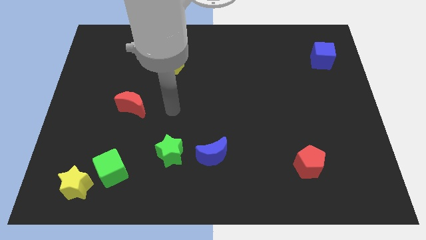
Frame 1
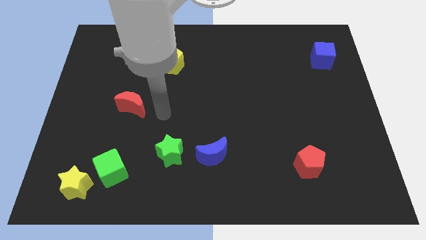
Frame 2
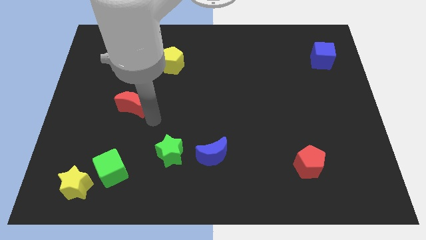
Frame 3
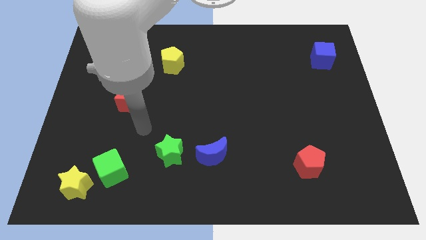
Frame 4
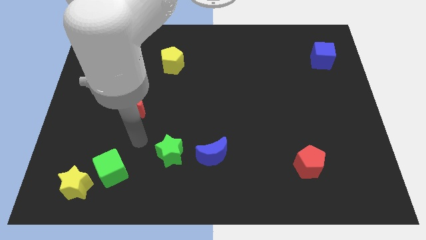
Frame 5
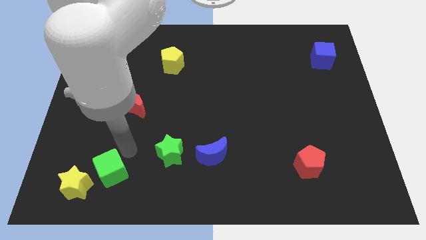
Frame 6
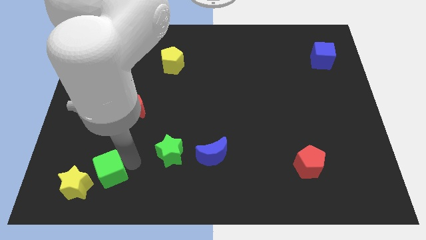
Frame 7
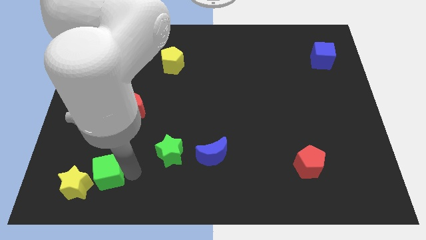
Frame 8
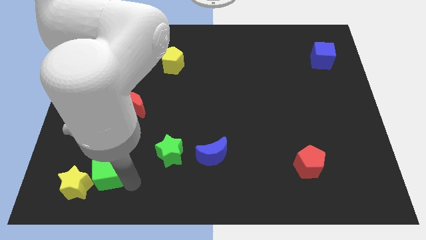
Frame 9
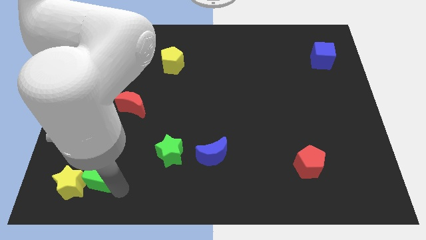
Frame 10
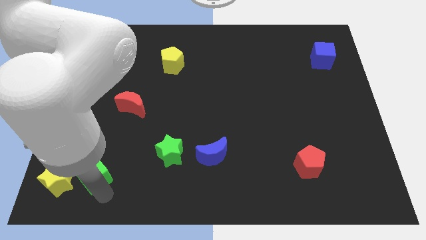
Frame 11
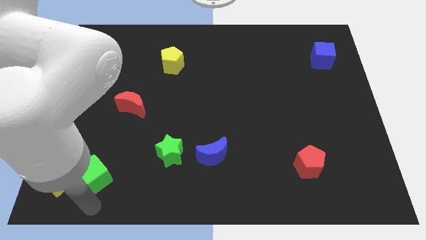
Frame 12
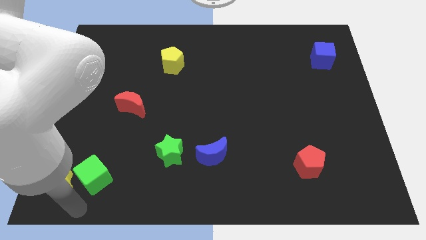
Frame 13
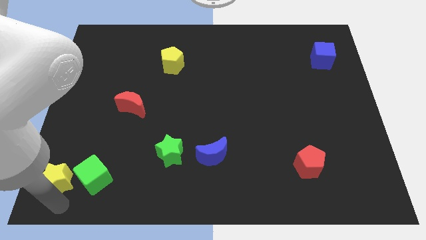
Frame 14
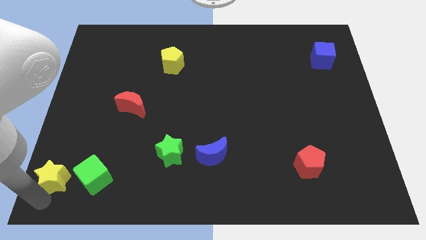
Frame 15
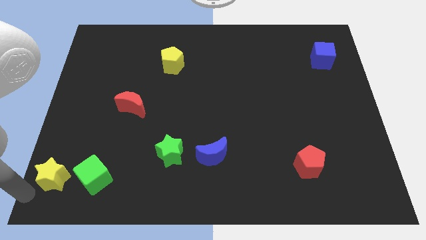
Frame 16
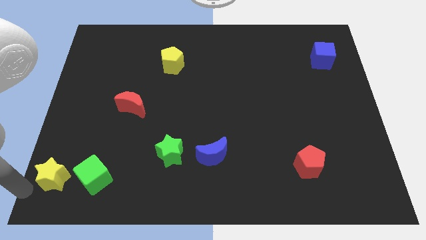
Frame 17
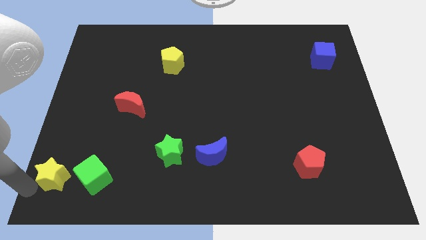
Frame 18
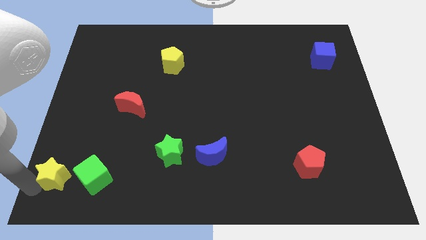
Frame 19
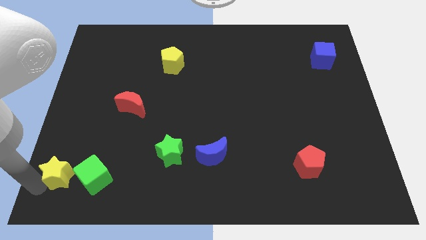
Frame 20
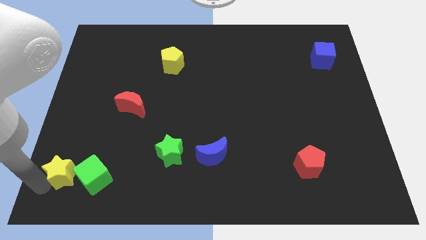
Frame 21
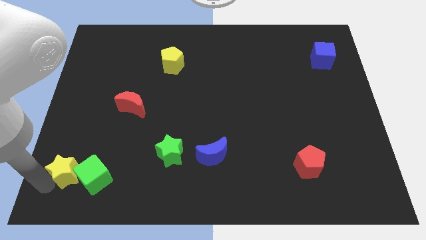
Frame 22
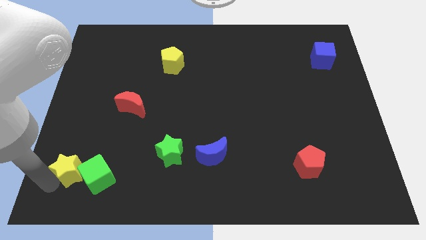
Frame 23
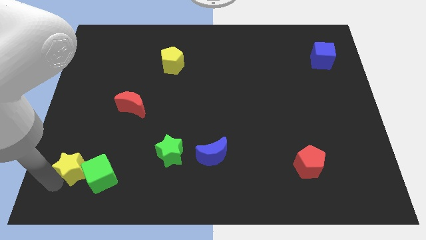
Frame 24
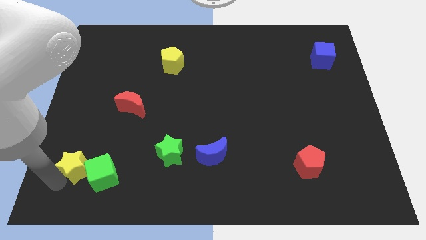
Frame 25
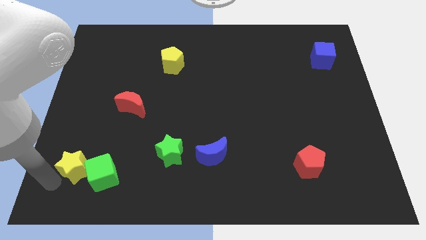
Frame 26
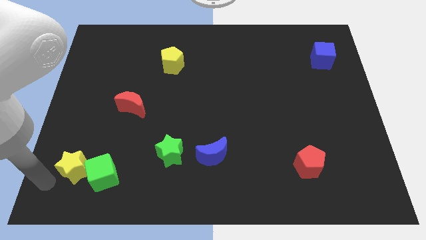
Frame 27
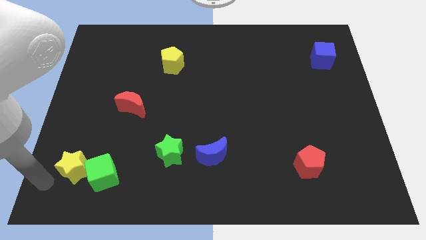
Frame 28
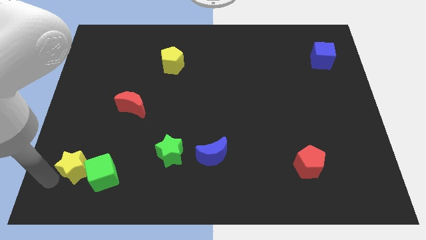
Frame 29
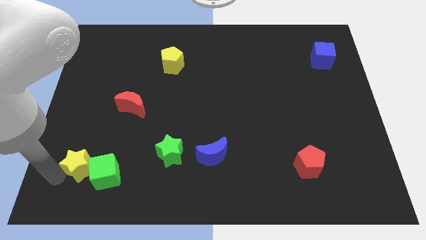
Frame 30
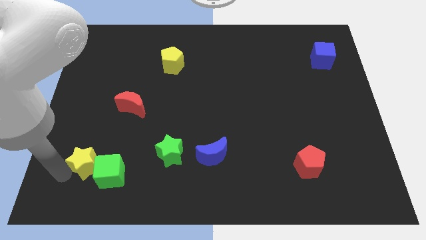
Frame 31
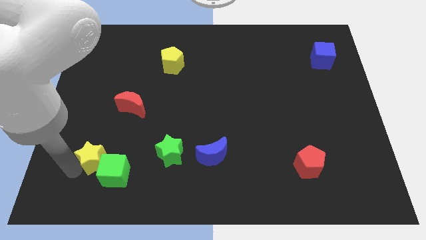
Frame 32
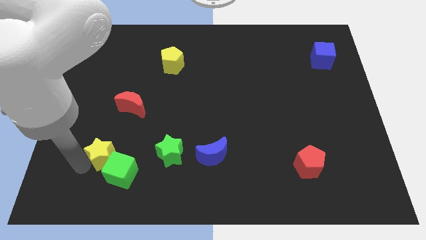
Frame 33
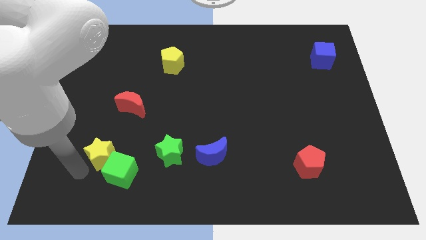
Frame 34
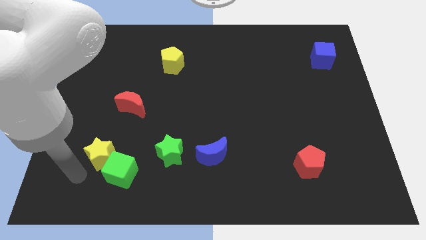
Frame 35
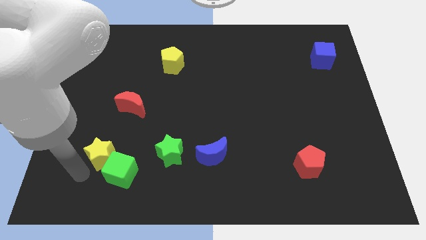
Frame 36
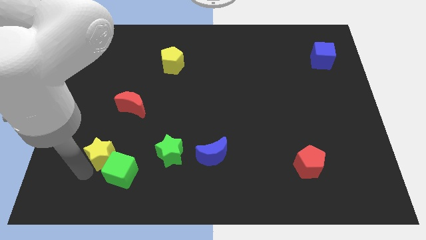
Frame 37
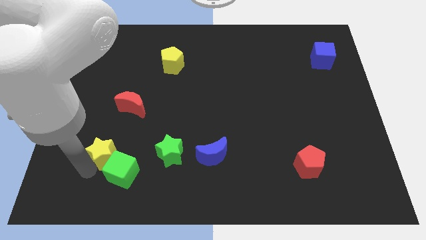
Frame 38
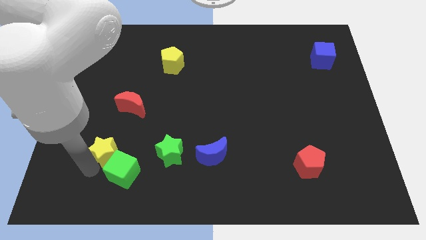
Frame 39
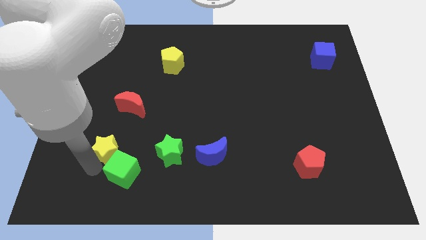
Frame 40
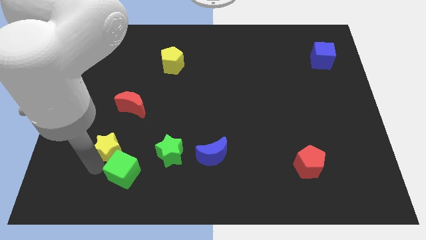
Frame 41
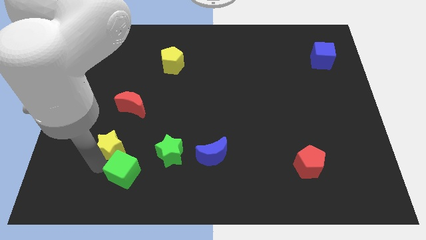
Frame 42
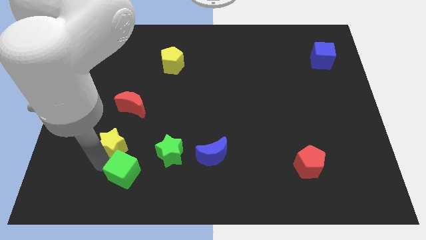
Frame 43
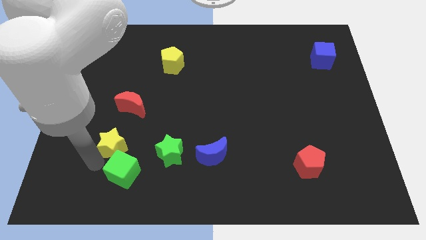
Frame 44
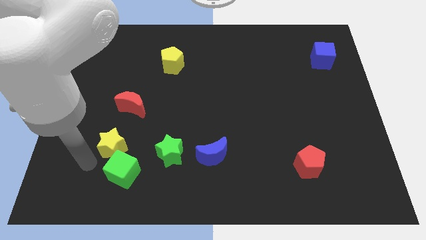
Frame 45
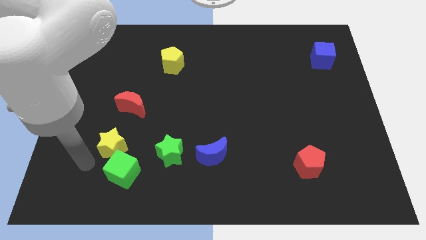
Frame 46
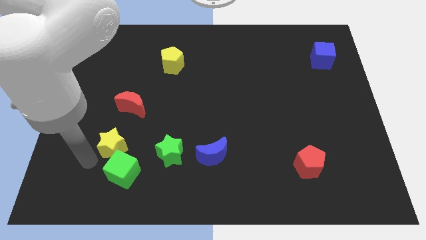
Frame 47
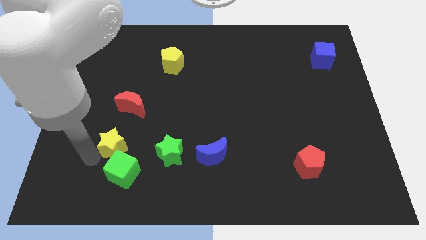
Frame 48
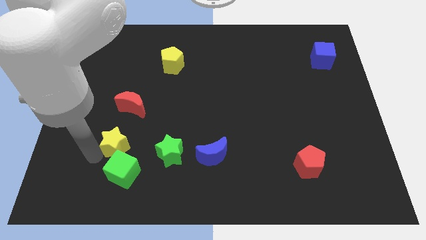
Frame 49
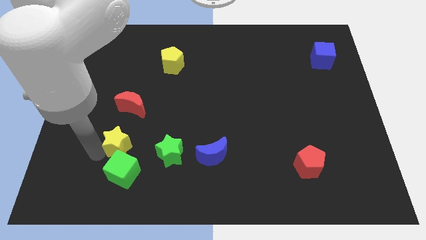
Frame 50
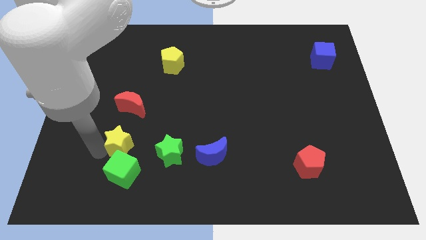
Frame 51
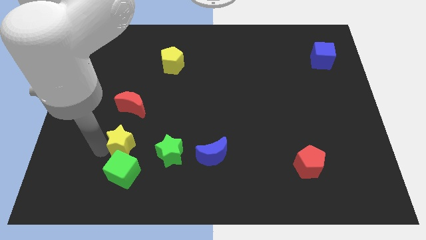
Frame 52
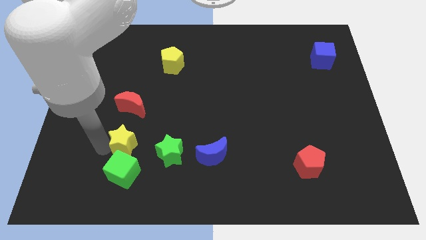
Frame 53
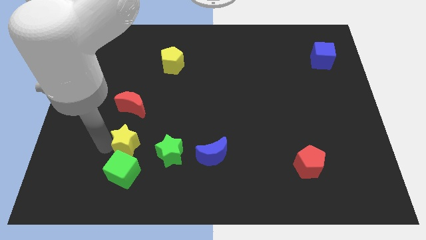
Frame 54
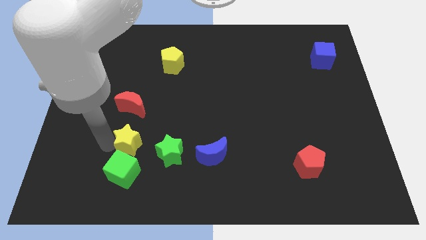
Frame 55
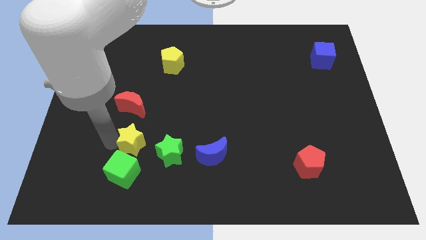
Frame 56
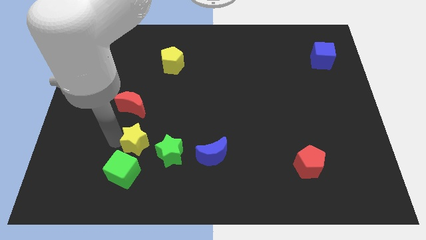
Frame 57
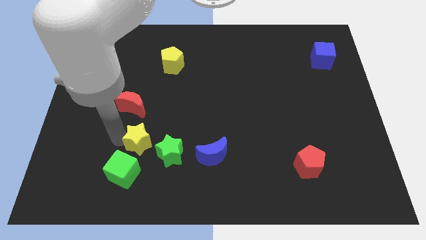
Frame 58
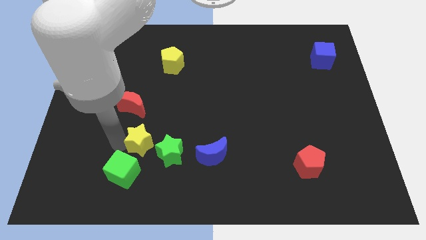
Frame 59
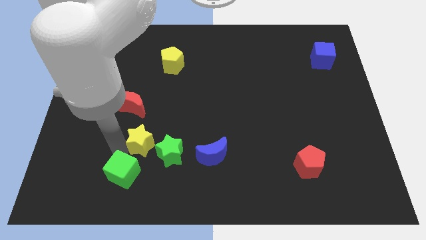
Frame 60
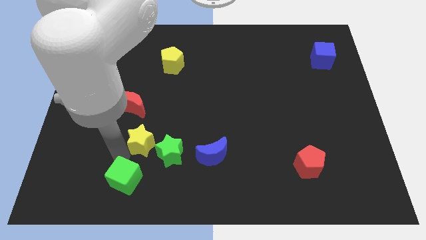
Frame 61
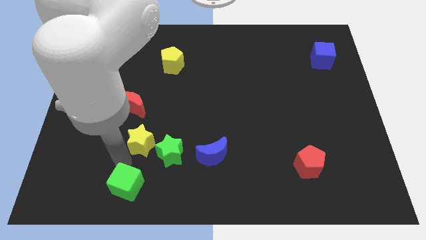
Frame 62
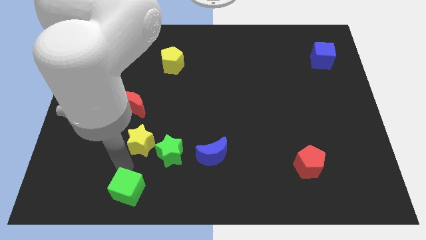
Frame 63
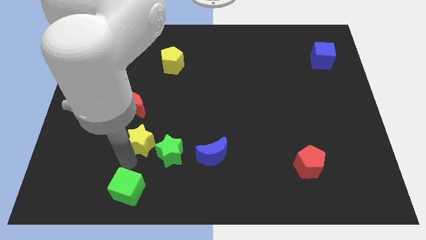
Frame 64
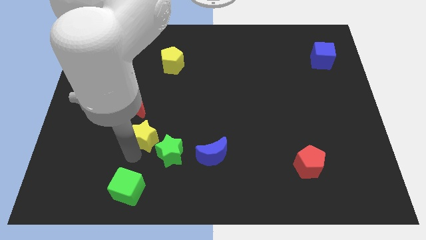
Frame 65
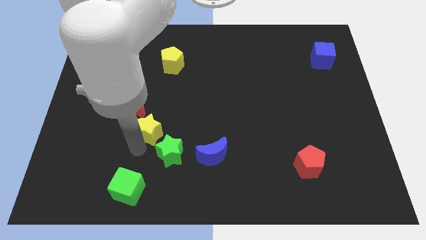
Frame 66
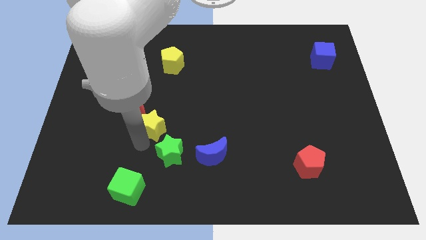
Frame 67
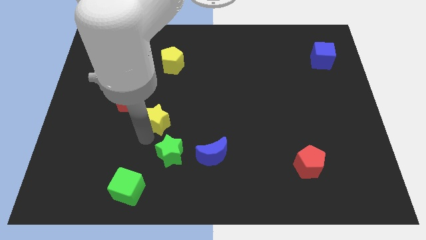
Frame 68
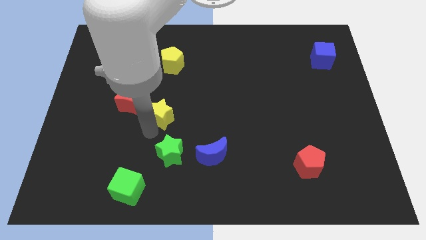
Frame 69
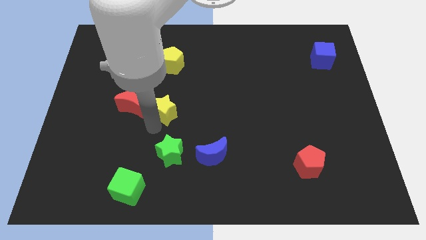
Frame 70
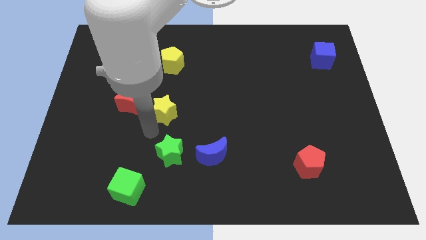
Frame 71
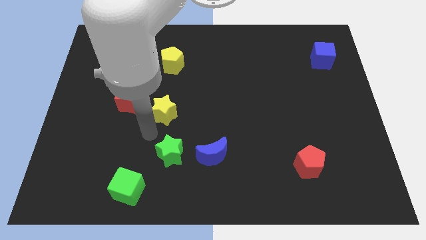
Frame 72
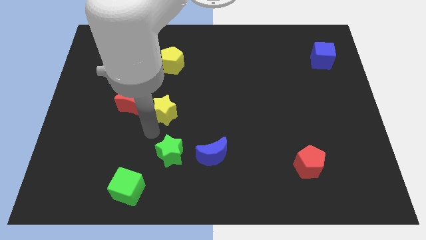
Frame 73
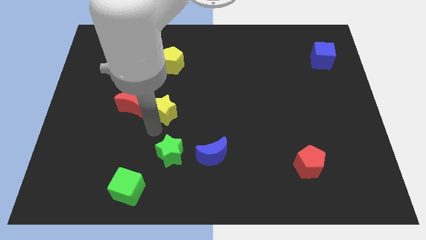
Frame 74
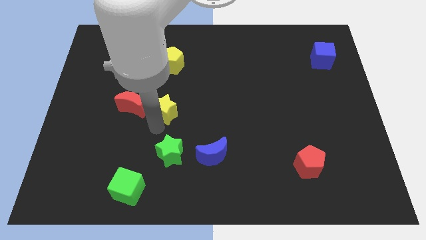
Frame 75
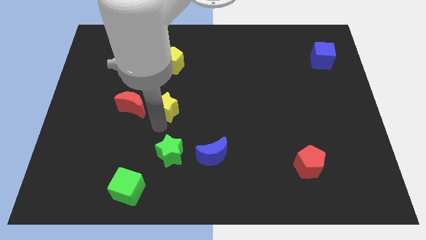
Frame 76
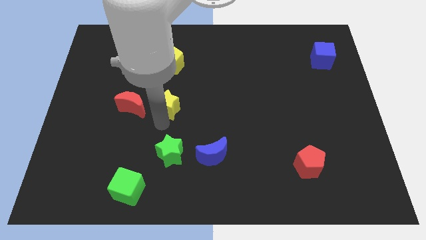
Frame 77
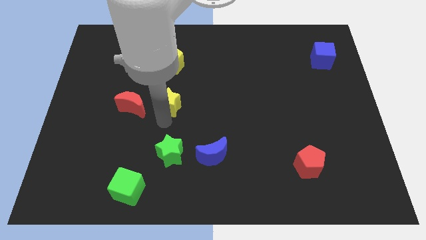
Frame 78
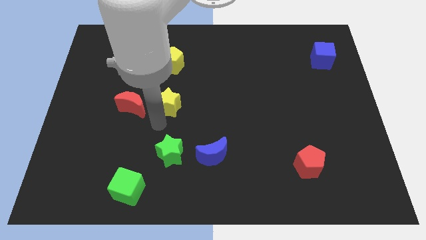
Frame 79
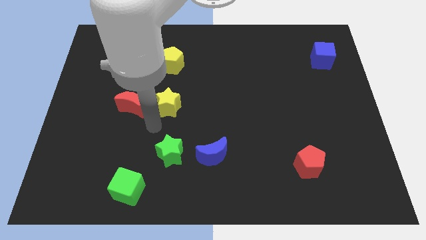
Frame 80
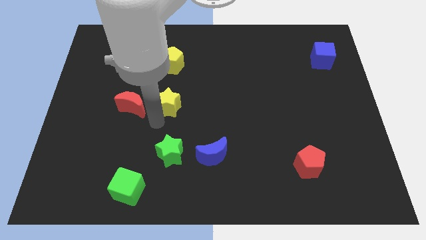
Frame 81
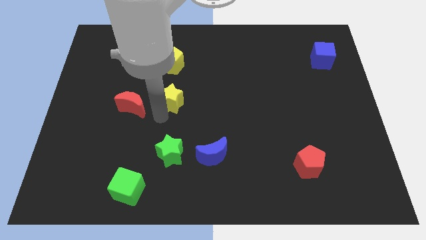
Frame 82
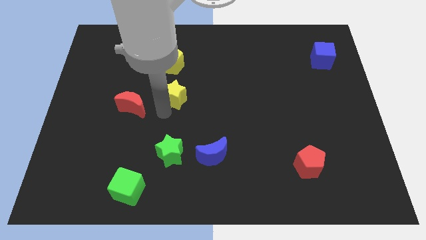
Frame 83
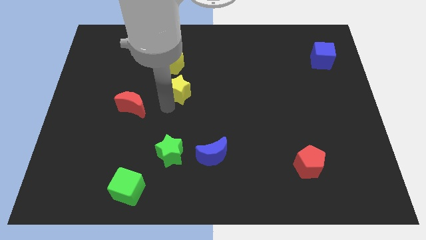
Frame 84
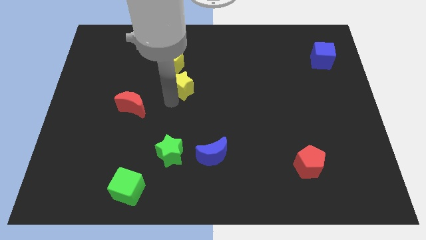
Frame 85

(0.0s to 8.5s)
slide the yellow star to the bottom right side of the yellow pentagon
